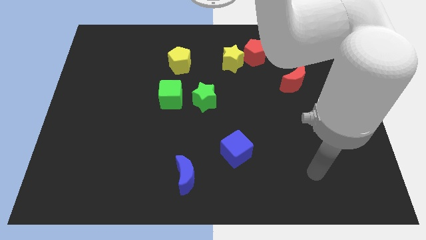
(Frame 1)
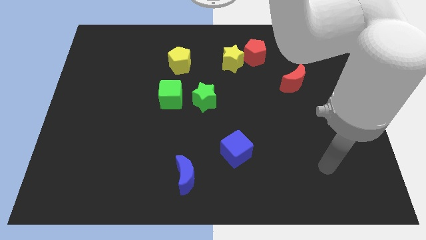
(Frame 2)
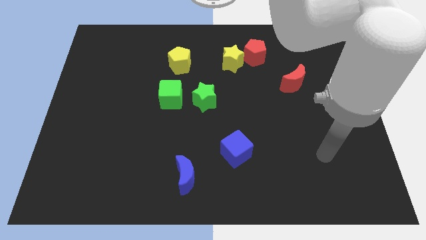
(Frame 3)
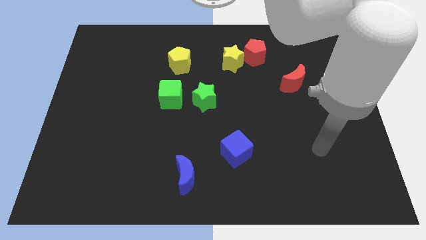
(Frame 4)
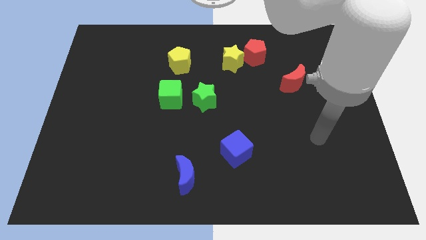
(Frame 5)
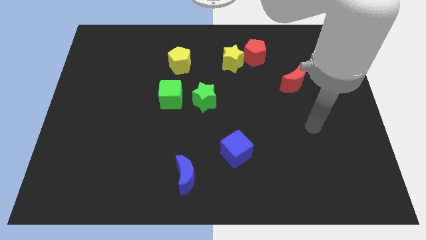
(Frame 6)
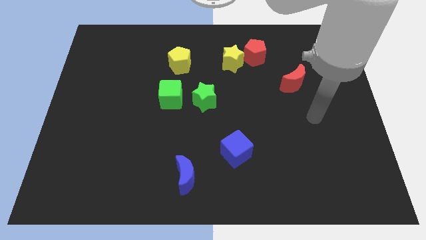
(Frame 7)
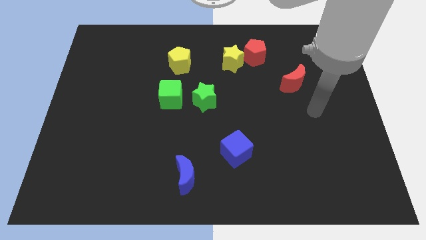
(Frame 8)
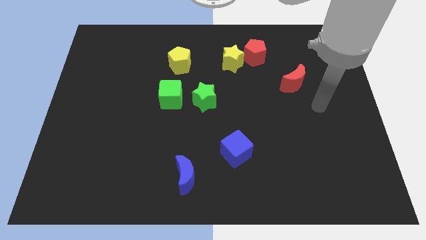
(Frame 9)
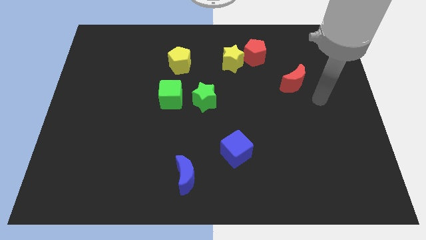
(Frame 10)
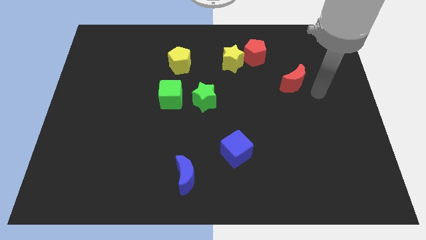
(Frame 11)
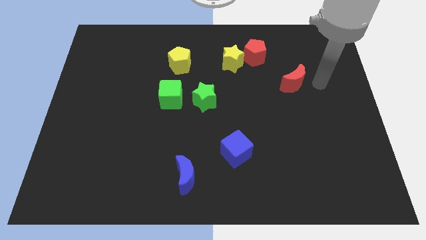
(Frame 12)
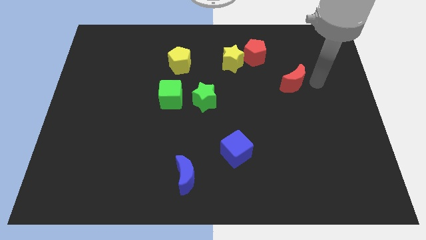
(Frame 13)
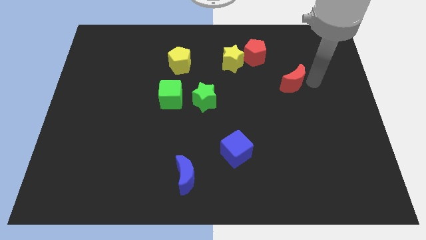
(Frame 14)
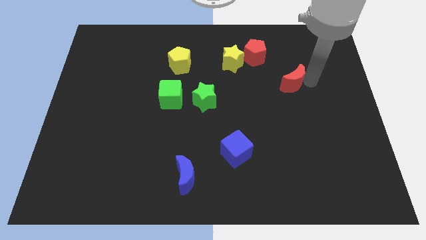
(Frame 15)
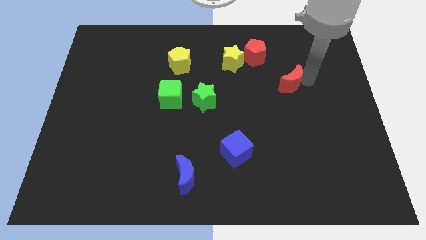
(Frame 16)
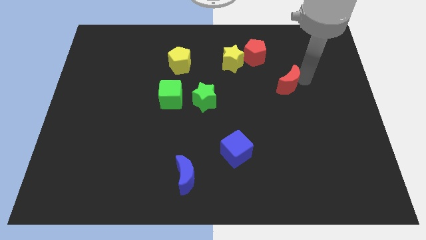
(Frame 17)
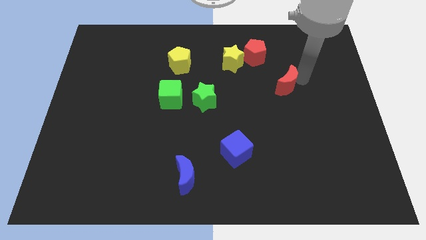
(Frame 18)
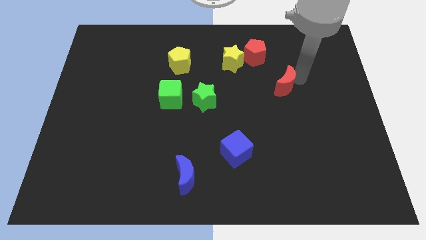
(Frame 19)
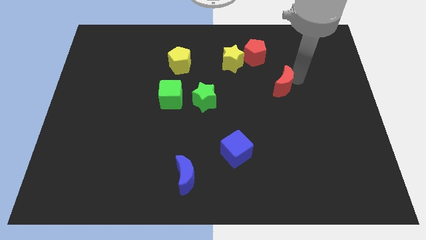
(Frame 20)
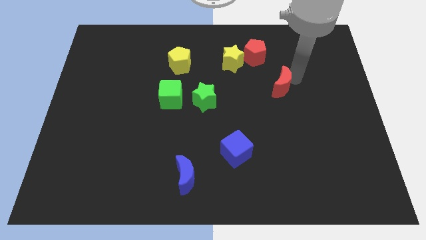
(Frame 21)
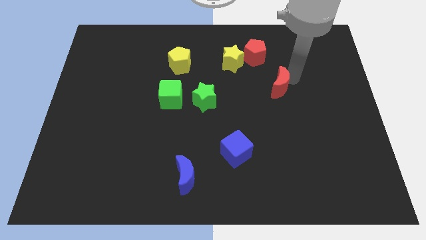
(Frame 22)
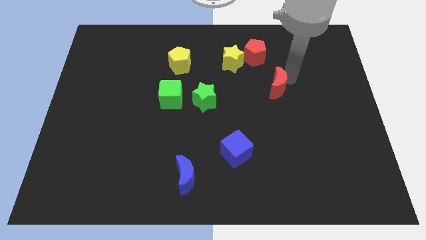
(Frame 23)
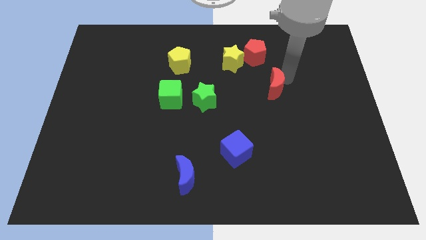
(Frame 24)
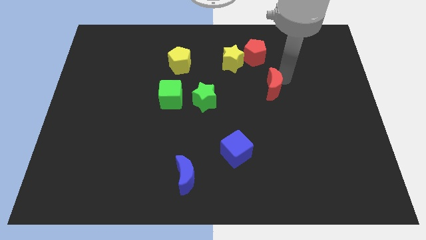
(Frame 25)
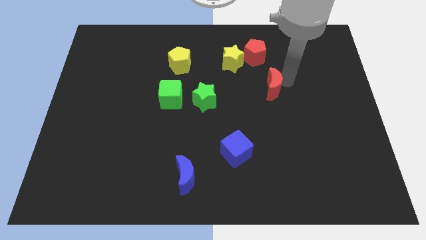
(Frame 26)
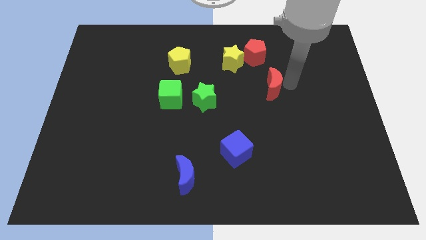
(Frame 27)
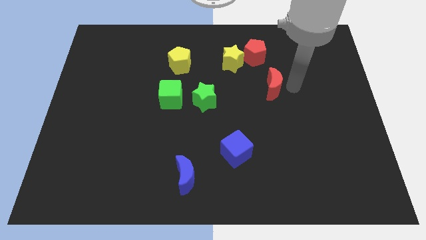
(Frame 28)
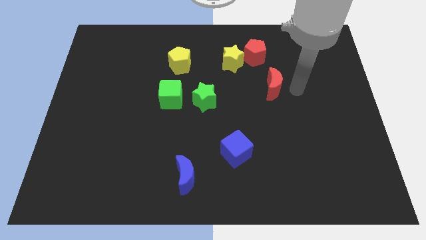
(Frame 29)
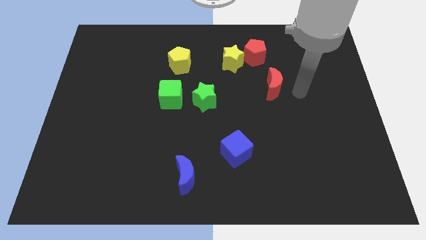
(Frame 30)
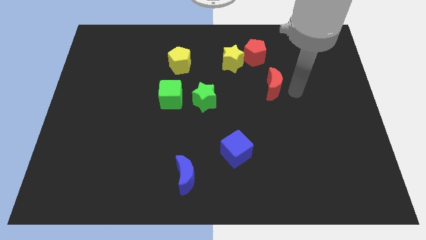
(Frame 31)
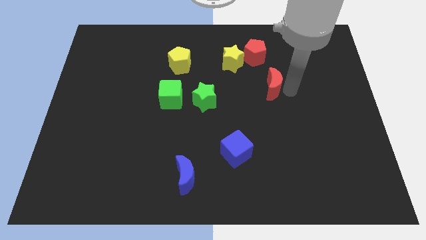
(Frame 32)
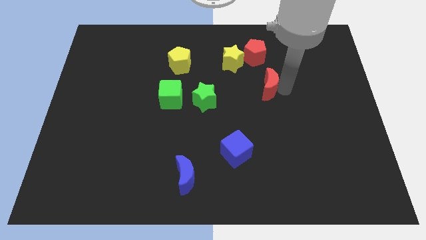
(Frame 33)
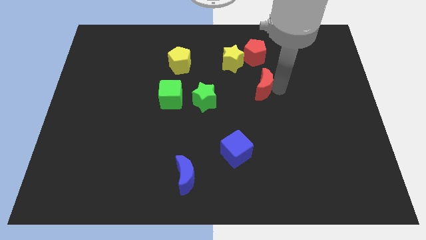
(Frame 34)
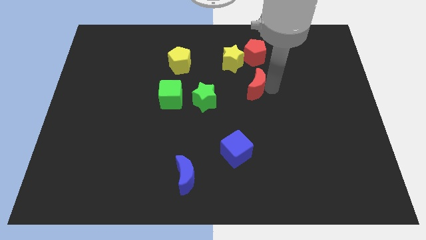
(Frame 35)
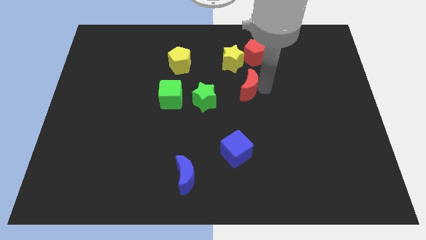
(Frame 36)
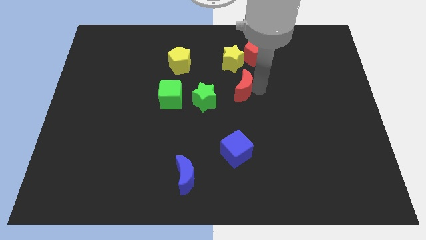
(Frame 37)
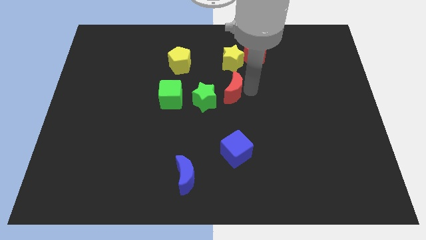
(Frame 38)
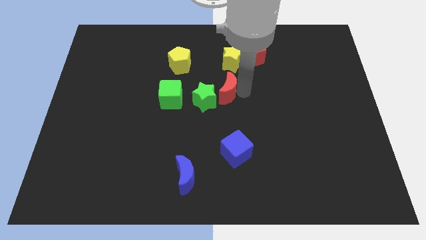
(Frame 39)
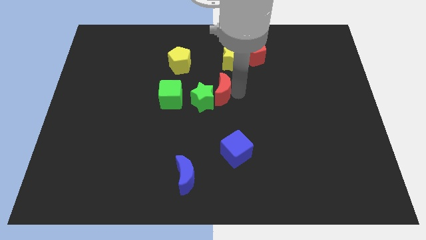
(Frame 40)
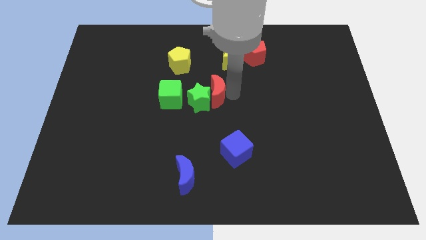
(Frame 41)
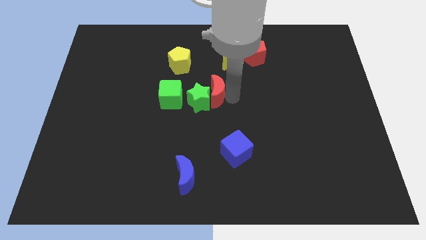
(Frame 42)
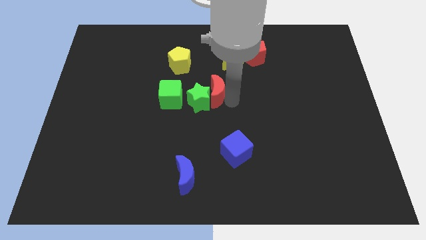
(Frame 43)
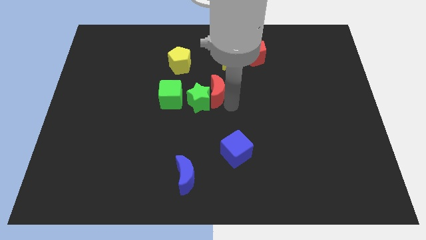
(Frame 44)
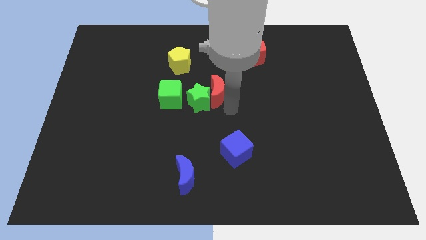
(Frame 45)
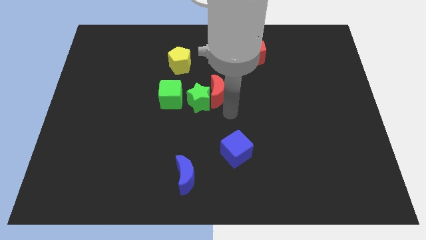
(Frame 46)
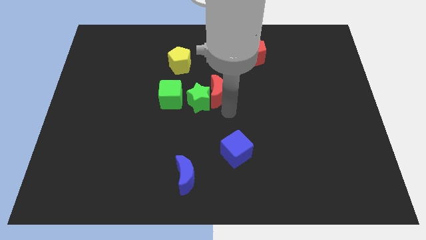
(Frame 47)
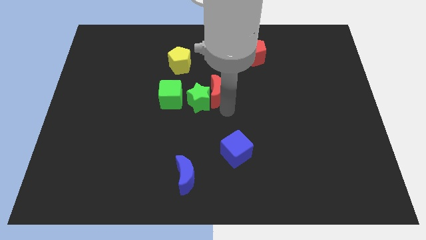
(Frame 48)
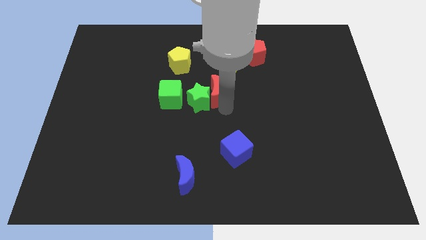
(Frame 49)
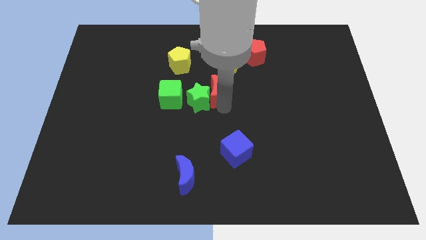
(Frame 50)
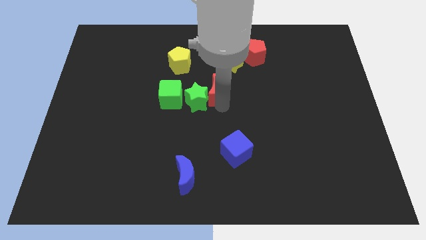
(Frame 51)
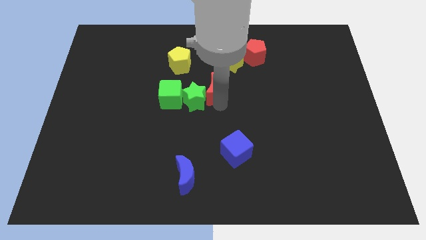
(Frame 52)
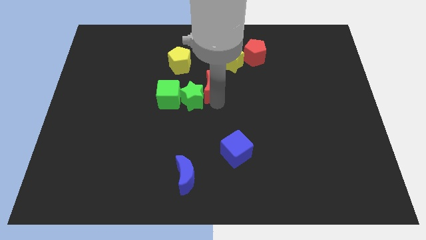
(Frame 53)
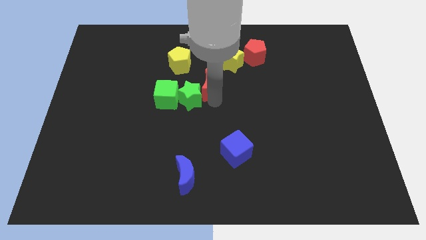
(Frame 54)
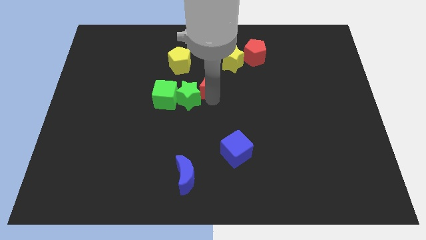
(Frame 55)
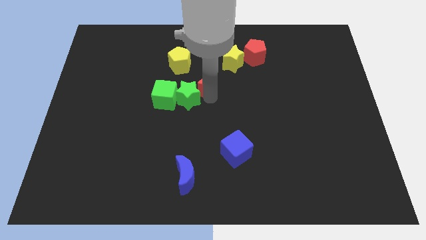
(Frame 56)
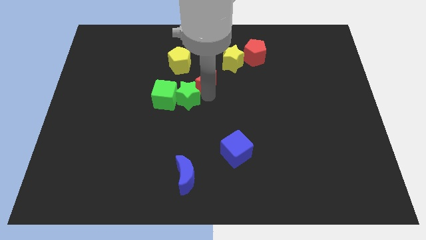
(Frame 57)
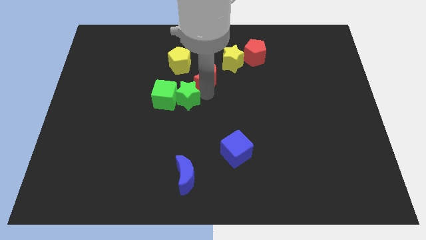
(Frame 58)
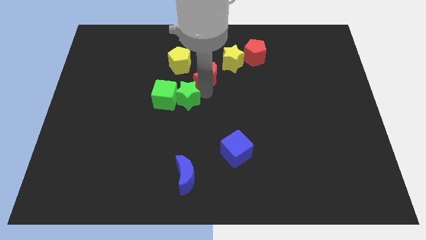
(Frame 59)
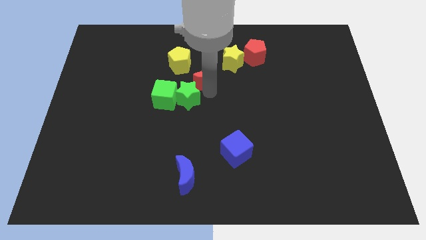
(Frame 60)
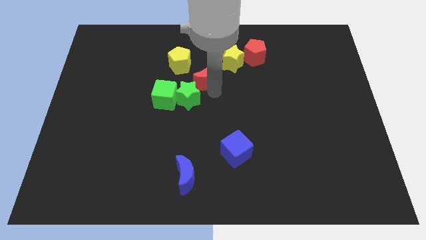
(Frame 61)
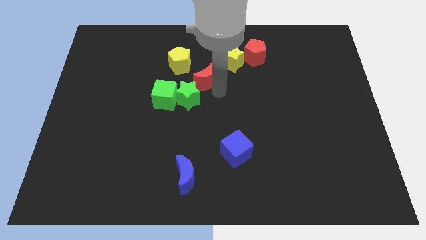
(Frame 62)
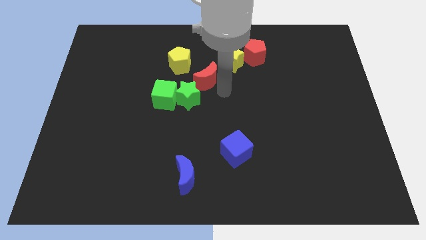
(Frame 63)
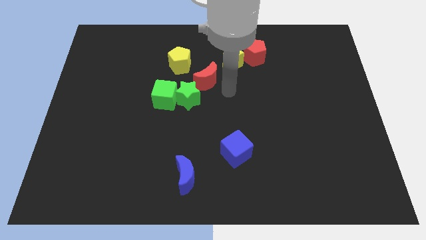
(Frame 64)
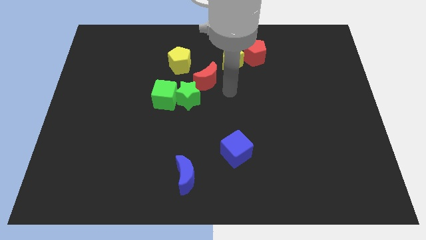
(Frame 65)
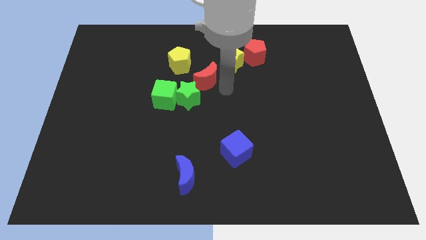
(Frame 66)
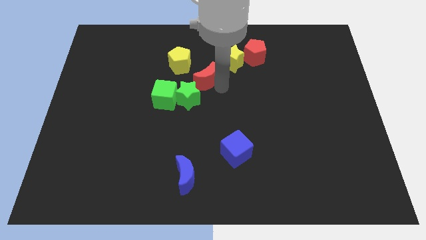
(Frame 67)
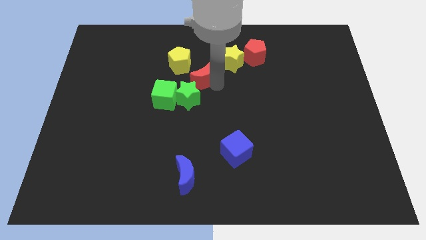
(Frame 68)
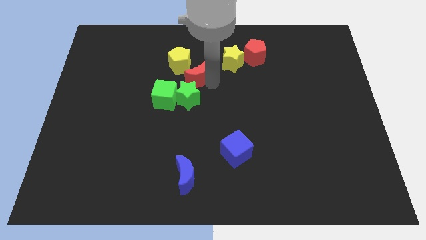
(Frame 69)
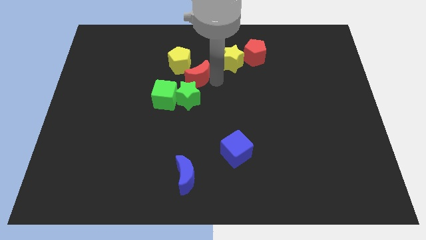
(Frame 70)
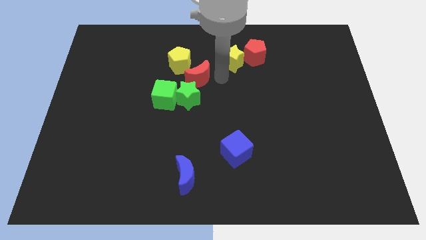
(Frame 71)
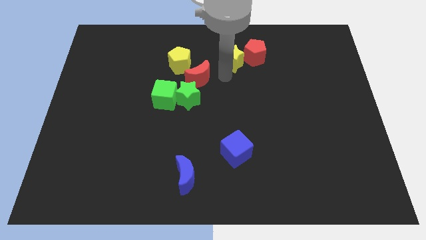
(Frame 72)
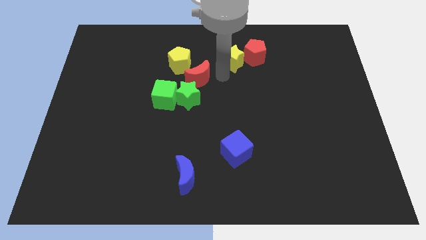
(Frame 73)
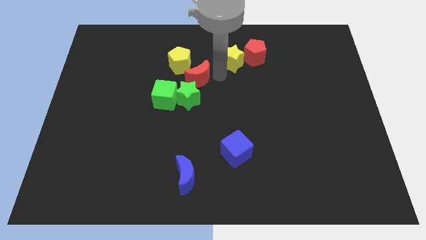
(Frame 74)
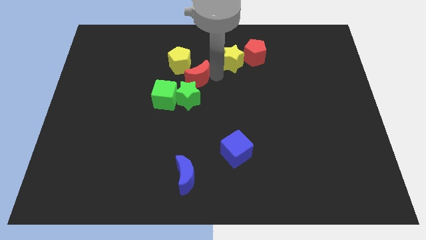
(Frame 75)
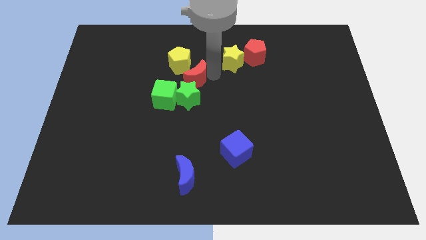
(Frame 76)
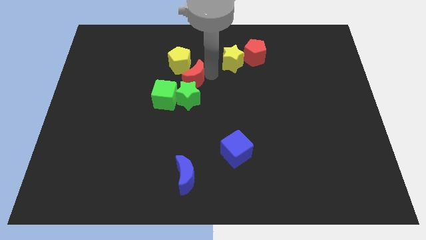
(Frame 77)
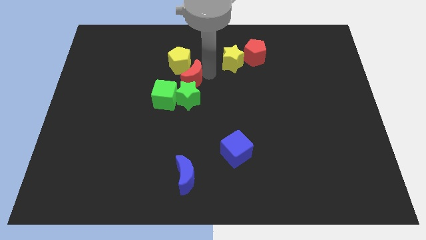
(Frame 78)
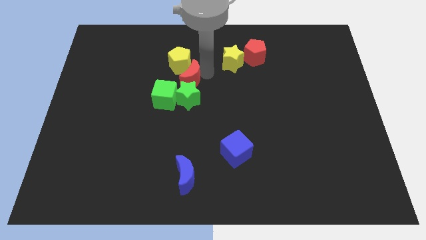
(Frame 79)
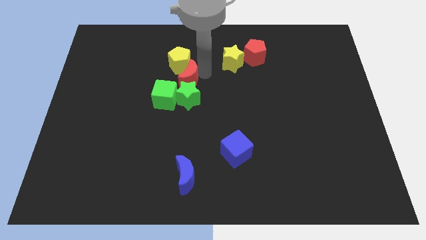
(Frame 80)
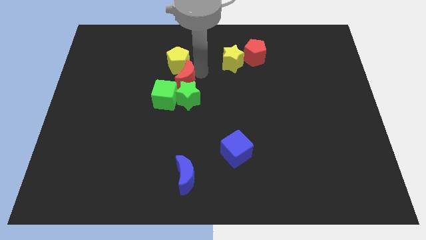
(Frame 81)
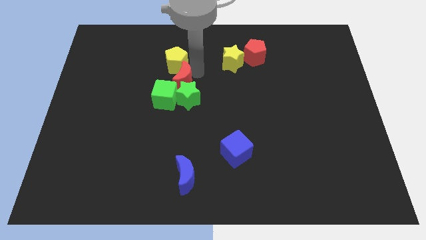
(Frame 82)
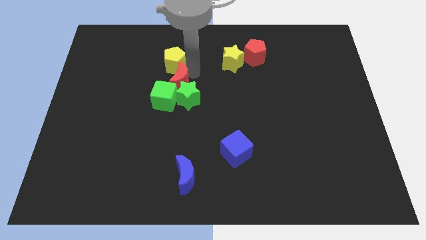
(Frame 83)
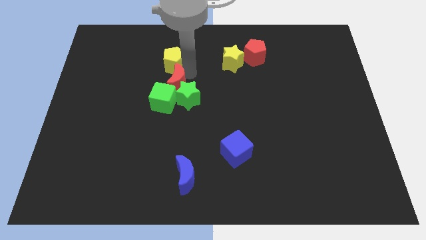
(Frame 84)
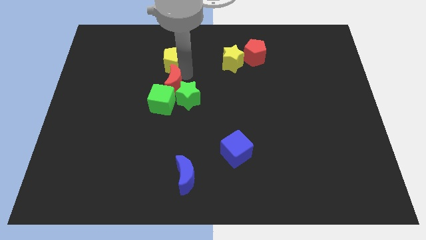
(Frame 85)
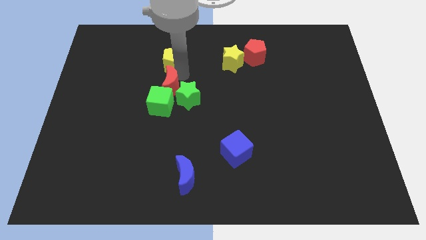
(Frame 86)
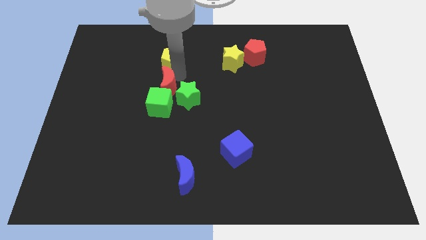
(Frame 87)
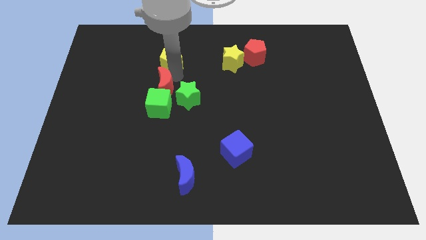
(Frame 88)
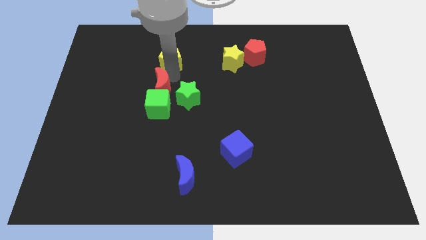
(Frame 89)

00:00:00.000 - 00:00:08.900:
slide the red moon to the top left side of the green cube
